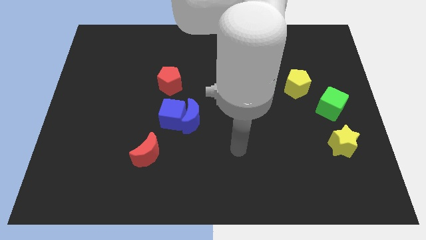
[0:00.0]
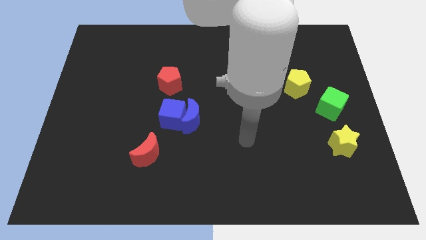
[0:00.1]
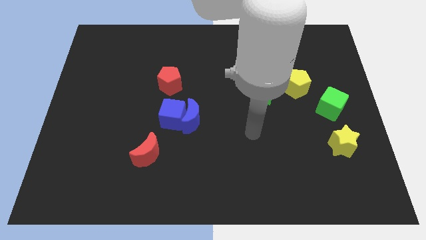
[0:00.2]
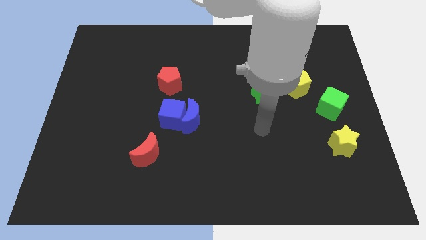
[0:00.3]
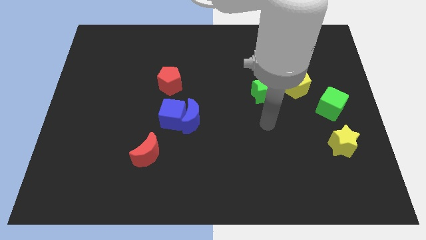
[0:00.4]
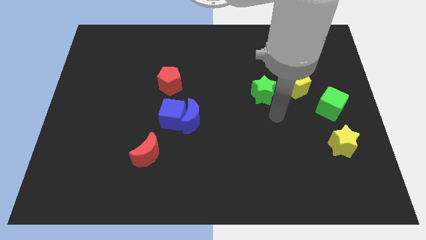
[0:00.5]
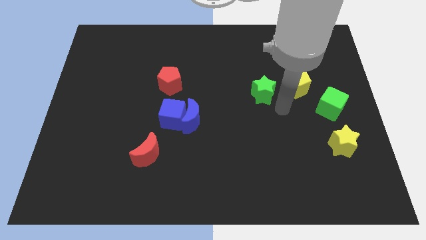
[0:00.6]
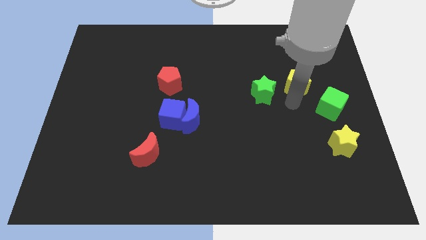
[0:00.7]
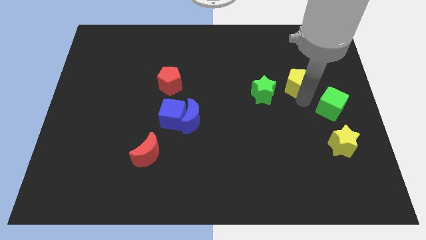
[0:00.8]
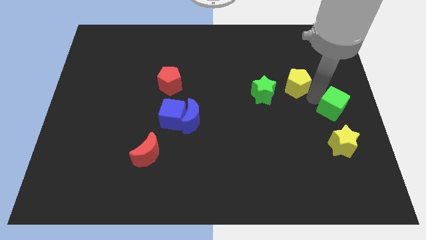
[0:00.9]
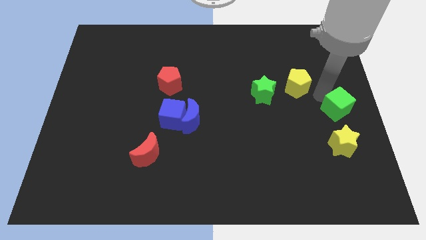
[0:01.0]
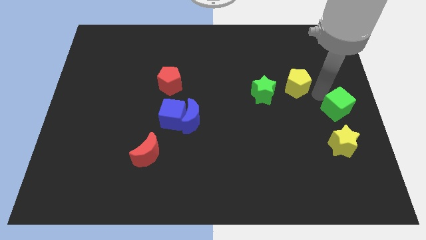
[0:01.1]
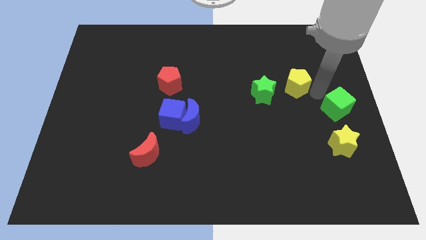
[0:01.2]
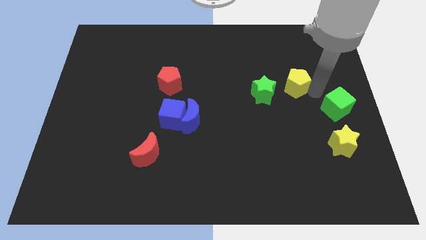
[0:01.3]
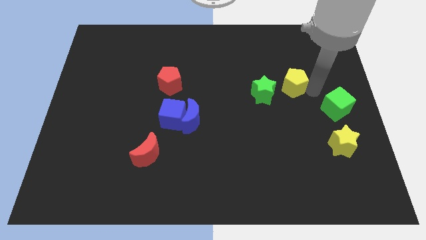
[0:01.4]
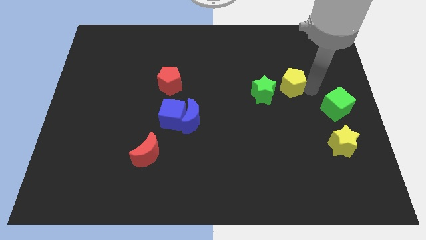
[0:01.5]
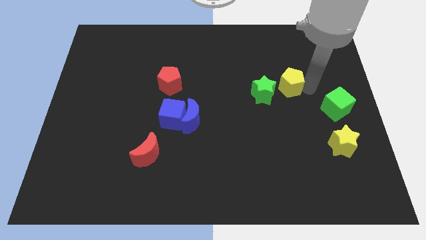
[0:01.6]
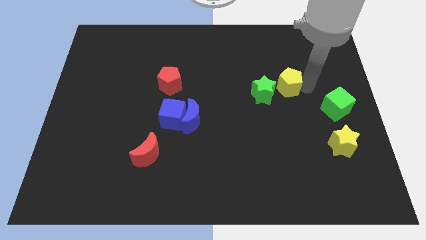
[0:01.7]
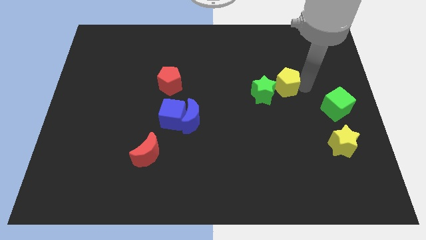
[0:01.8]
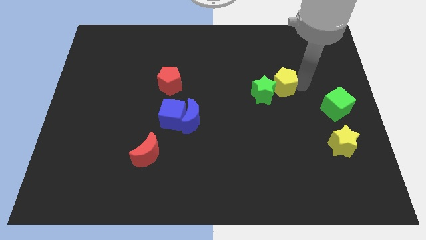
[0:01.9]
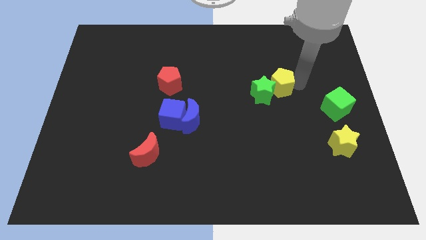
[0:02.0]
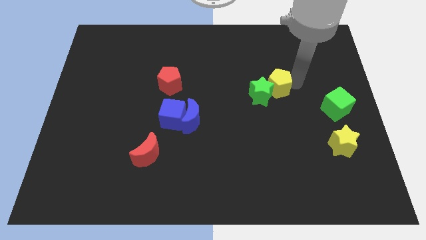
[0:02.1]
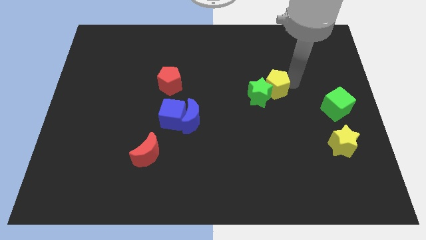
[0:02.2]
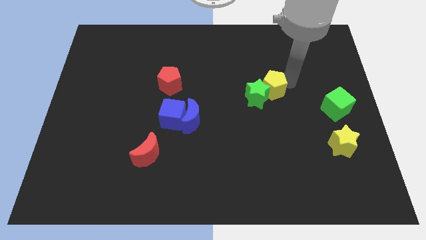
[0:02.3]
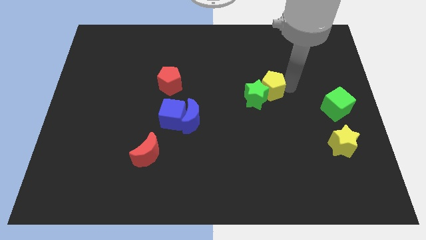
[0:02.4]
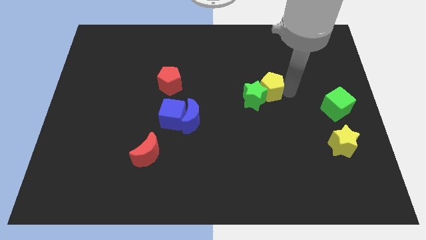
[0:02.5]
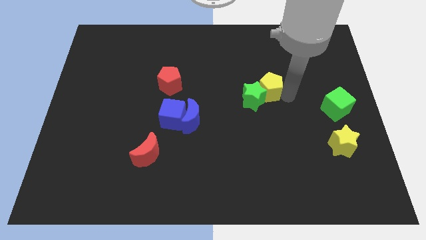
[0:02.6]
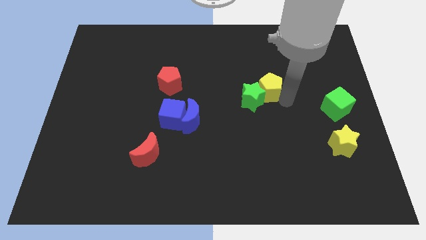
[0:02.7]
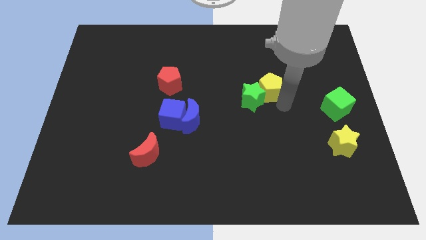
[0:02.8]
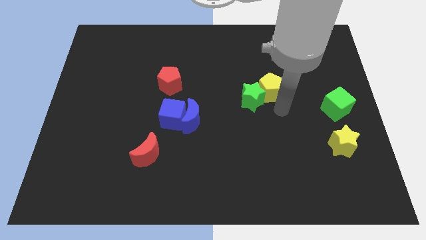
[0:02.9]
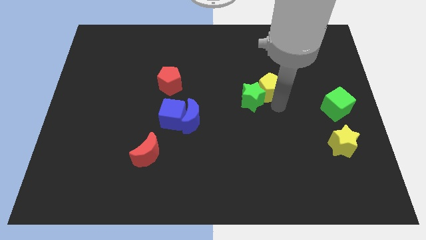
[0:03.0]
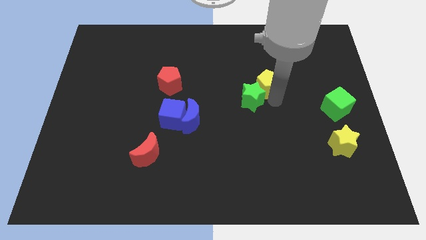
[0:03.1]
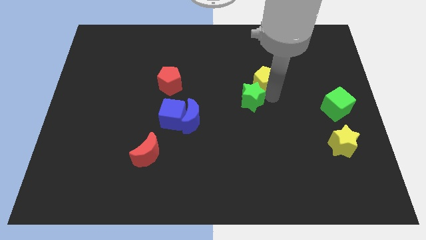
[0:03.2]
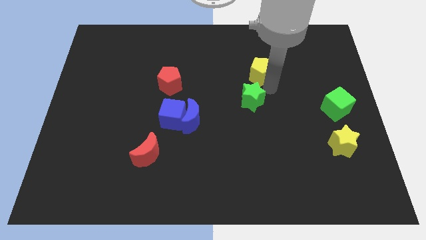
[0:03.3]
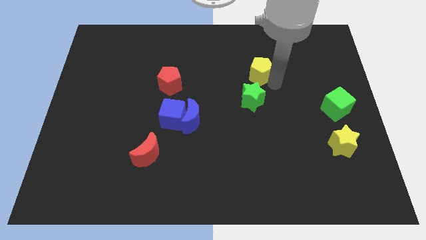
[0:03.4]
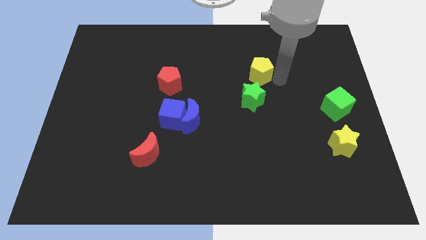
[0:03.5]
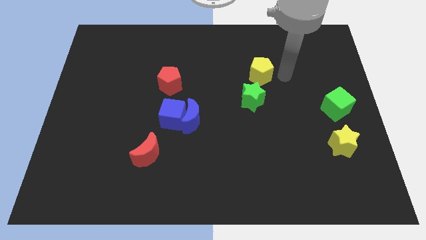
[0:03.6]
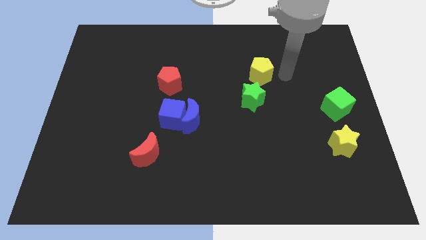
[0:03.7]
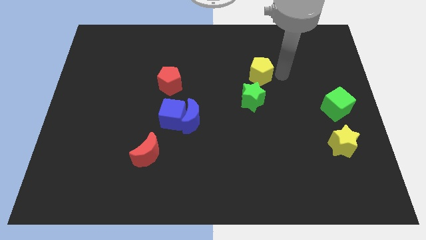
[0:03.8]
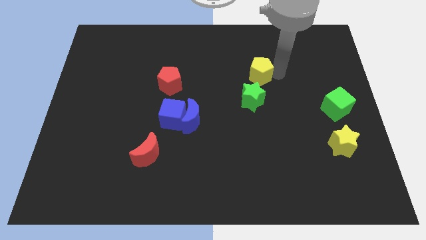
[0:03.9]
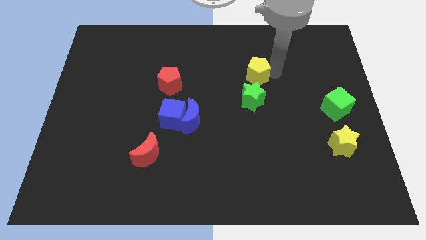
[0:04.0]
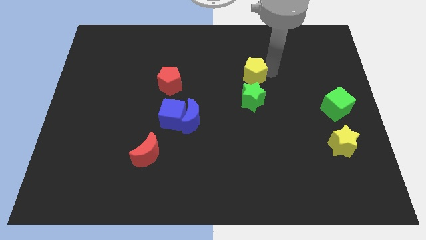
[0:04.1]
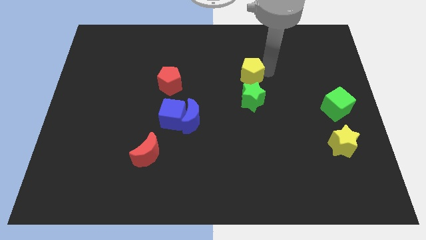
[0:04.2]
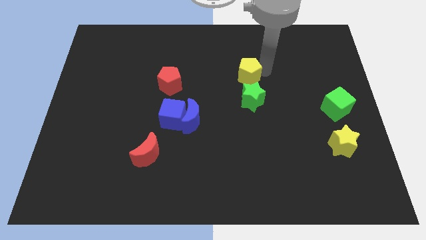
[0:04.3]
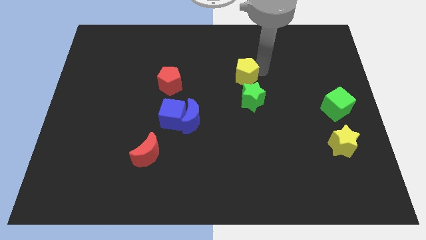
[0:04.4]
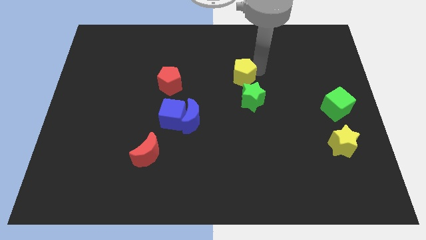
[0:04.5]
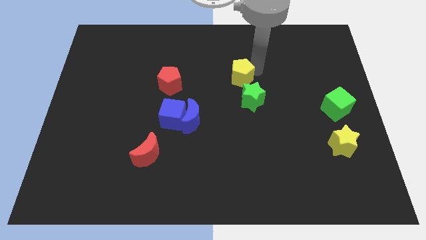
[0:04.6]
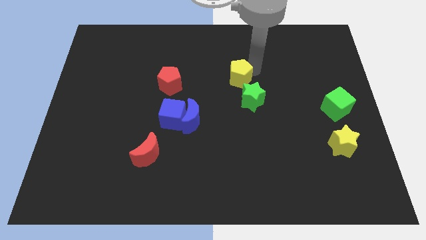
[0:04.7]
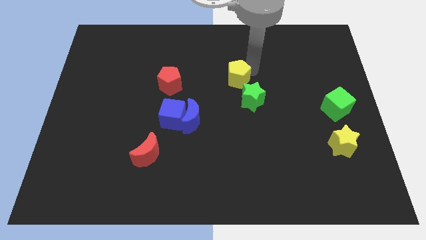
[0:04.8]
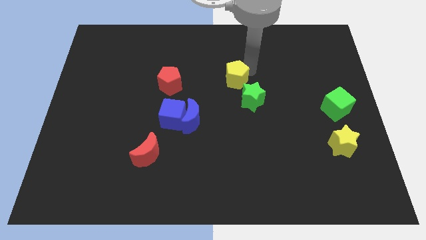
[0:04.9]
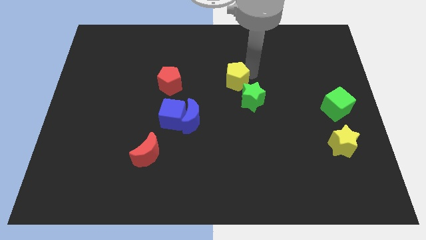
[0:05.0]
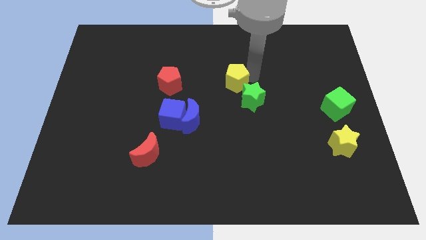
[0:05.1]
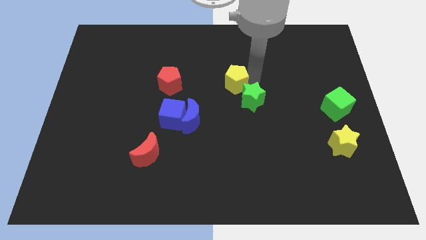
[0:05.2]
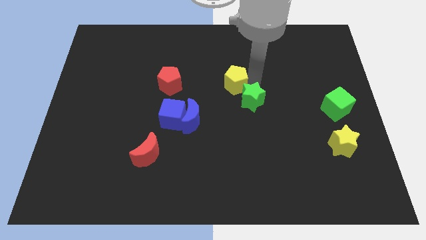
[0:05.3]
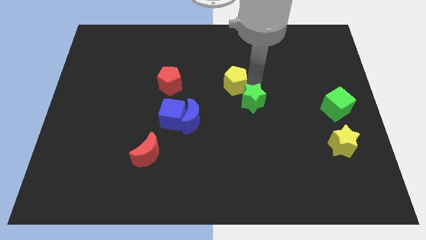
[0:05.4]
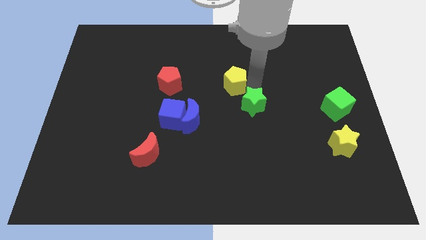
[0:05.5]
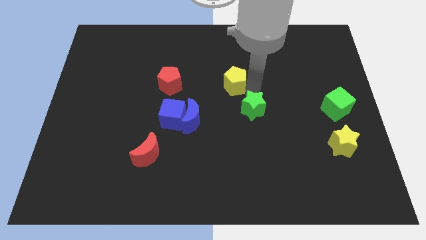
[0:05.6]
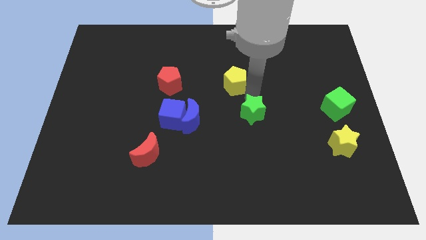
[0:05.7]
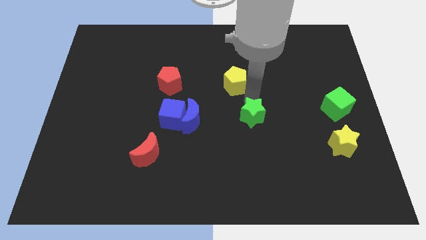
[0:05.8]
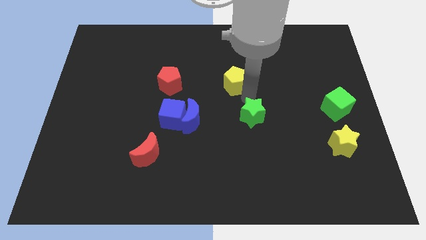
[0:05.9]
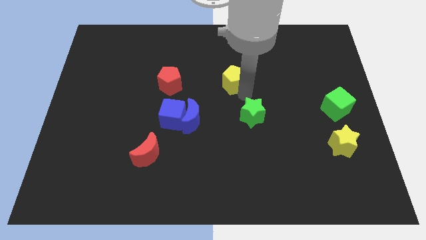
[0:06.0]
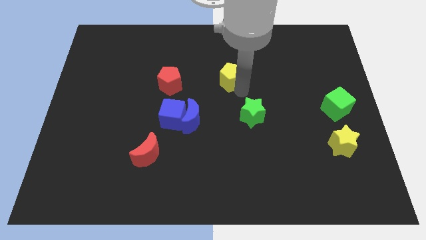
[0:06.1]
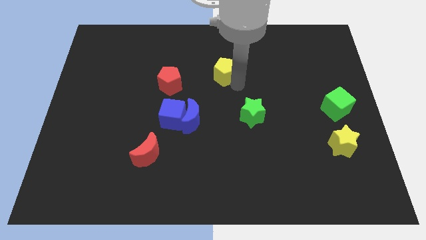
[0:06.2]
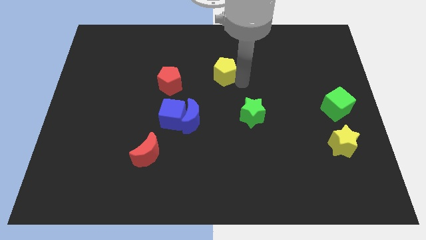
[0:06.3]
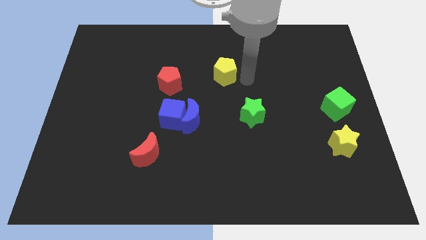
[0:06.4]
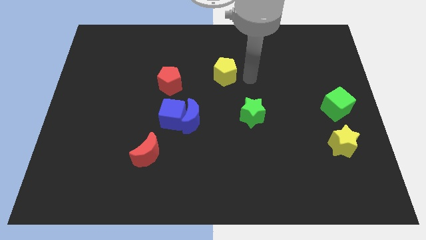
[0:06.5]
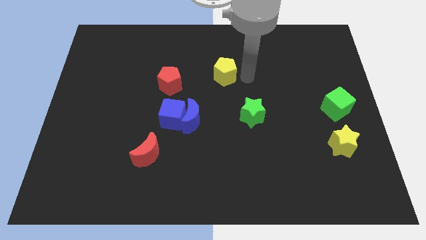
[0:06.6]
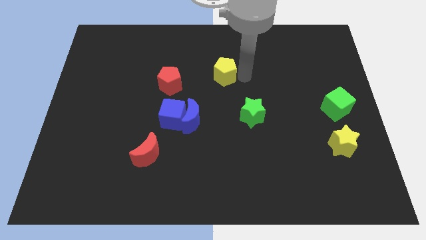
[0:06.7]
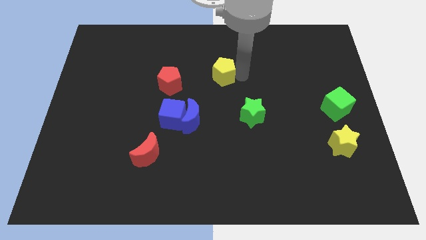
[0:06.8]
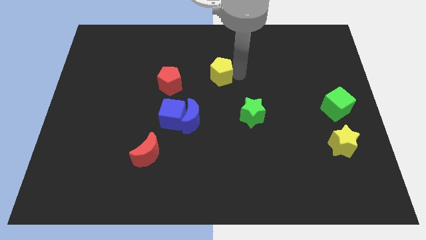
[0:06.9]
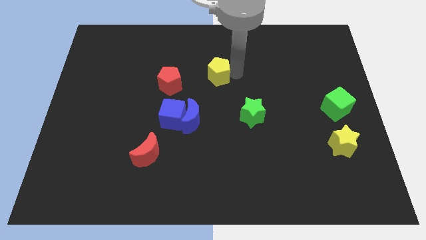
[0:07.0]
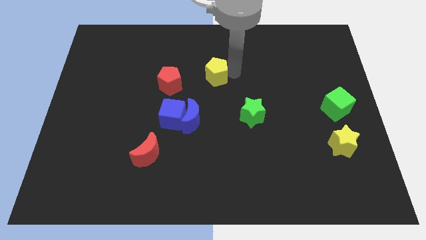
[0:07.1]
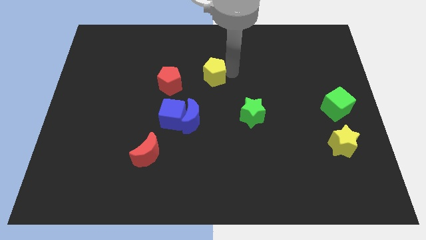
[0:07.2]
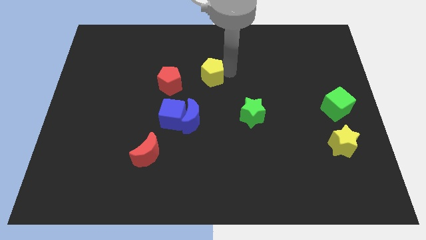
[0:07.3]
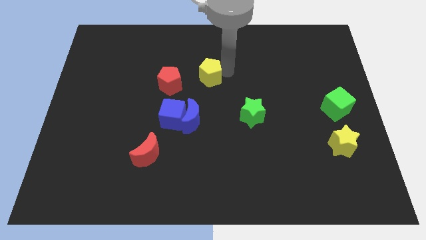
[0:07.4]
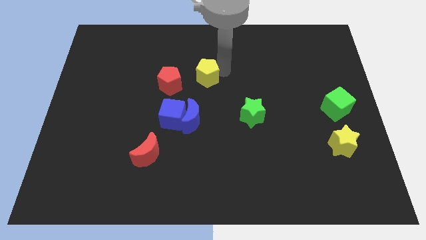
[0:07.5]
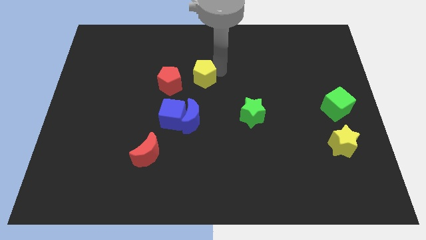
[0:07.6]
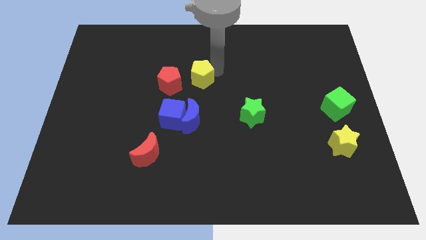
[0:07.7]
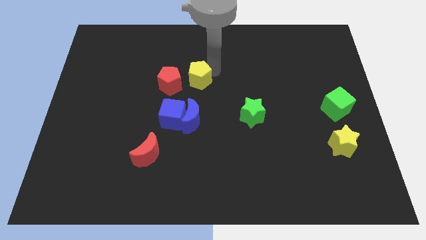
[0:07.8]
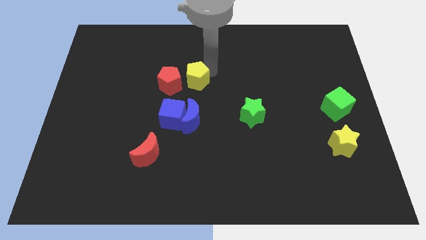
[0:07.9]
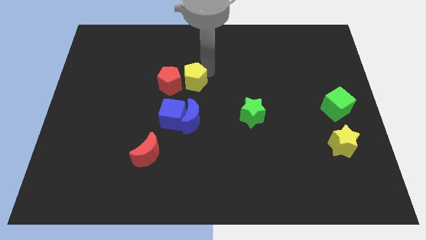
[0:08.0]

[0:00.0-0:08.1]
move the yellow pentagon to the top of the blue cube

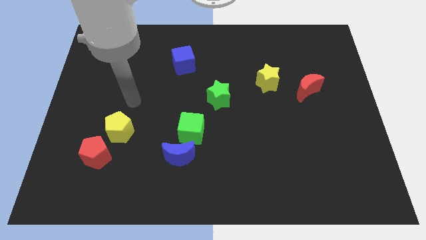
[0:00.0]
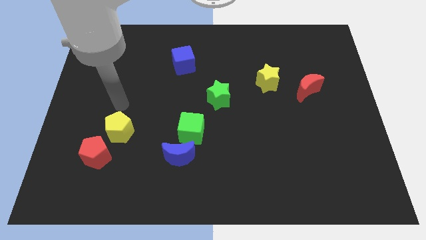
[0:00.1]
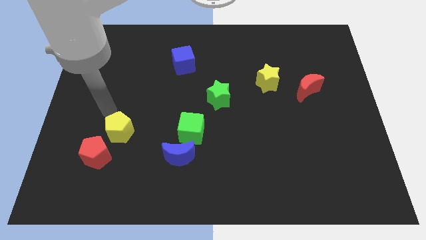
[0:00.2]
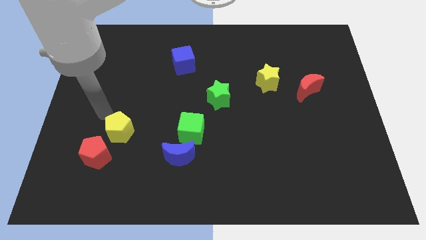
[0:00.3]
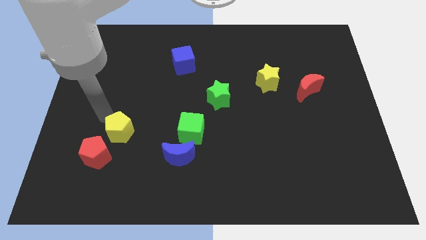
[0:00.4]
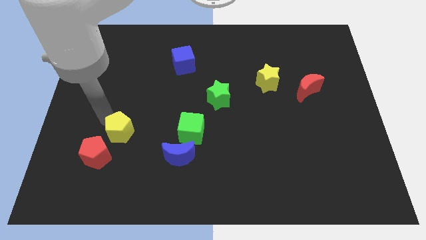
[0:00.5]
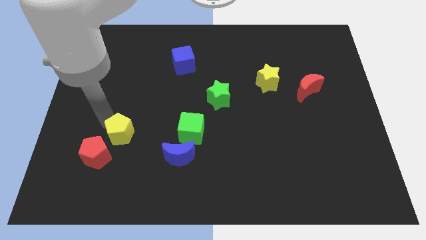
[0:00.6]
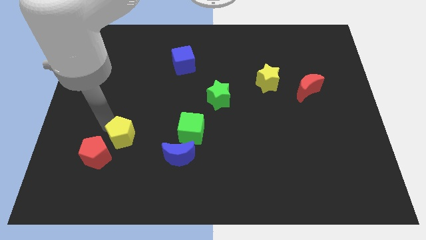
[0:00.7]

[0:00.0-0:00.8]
push the yellow pentagon to the right of the red pentagon
